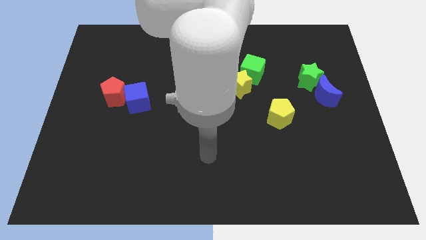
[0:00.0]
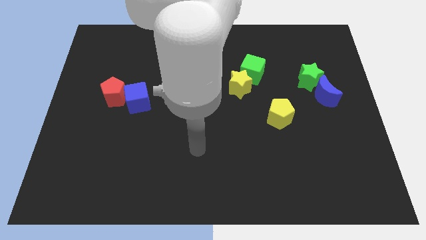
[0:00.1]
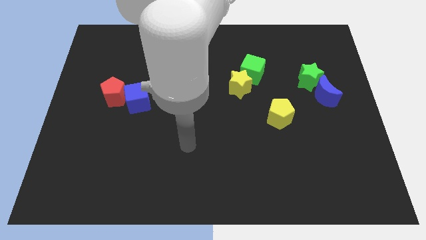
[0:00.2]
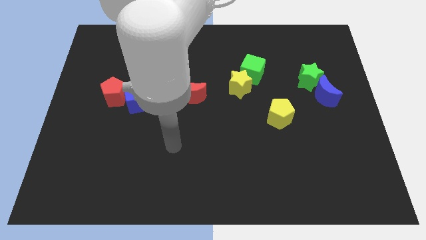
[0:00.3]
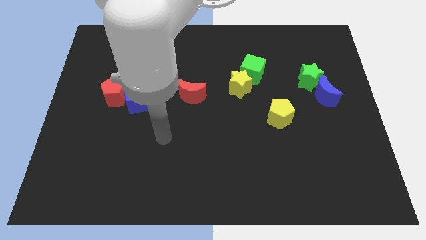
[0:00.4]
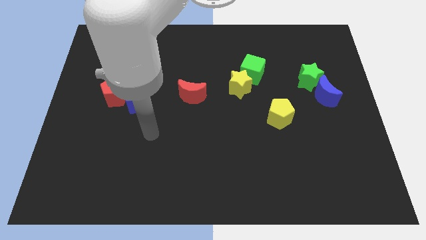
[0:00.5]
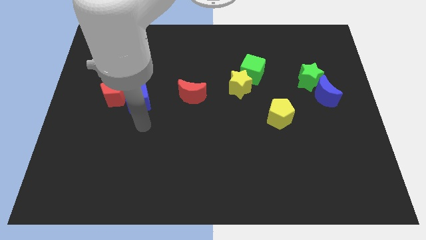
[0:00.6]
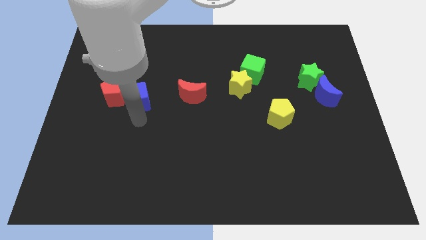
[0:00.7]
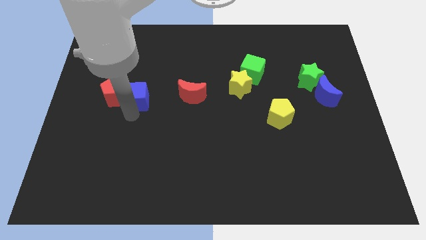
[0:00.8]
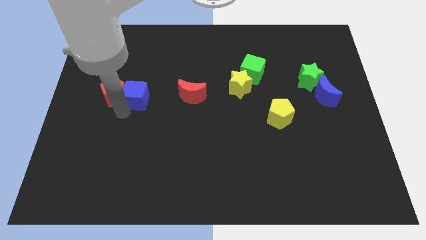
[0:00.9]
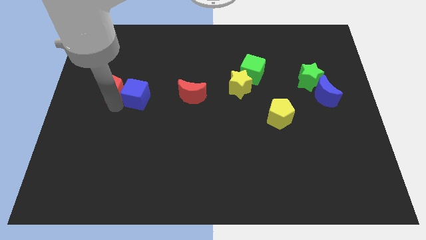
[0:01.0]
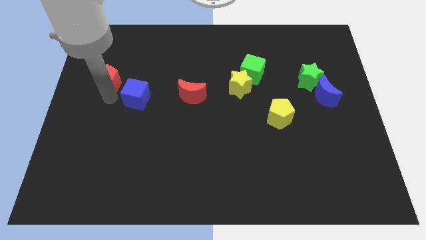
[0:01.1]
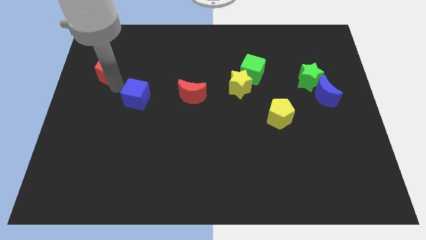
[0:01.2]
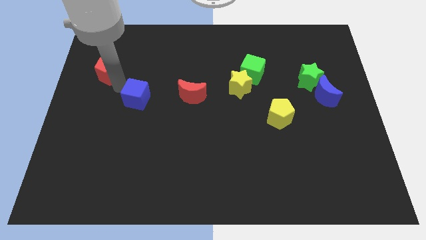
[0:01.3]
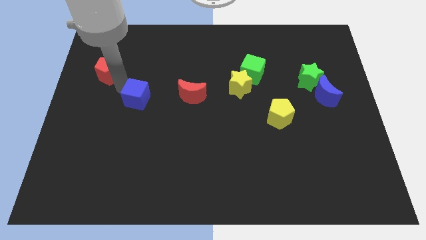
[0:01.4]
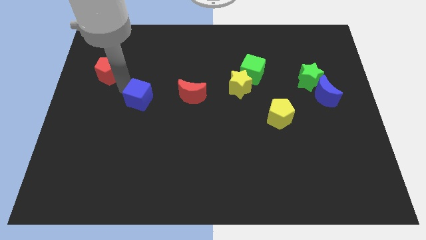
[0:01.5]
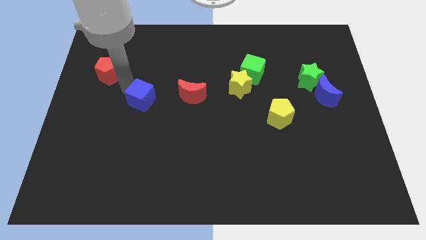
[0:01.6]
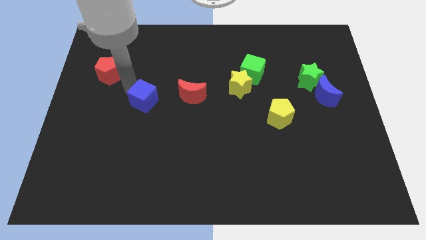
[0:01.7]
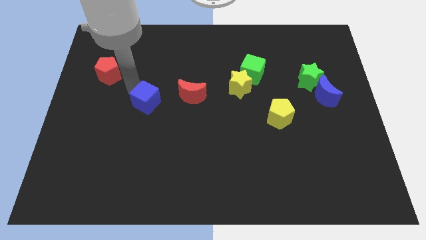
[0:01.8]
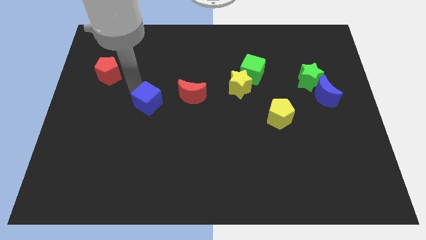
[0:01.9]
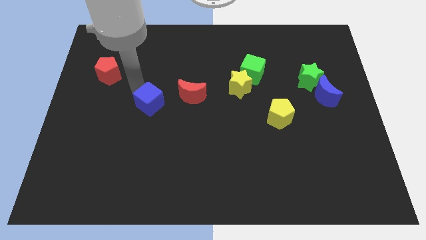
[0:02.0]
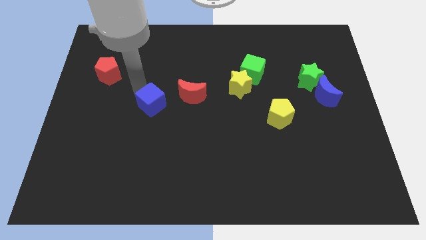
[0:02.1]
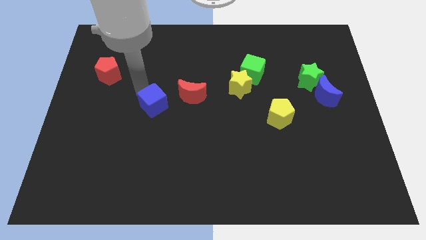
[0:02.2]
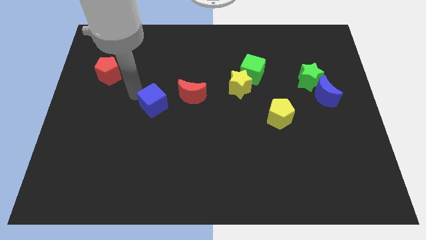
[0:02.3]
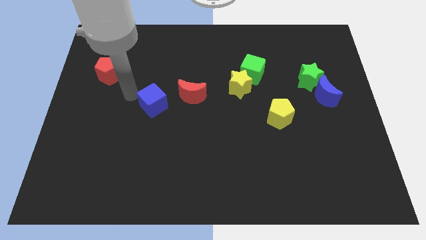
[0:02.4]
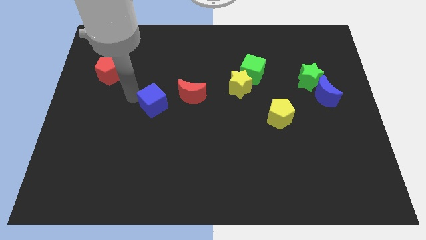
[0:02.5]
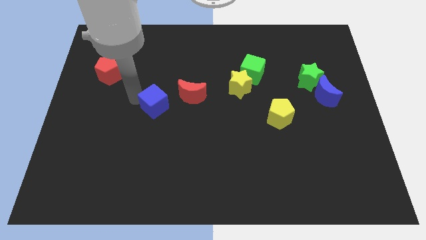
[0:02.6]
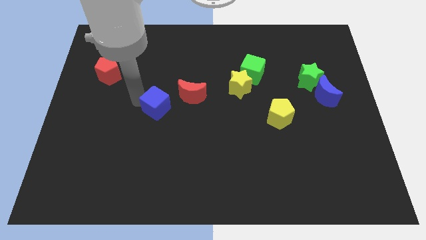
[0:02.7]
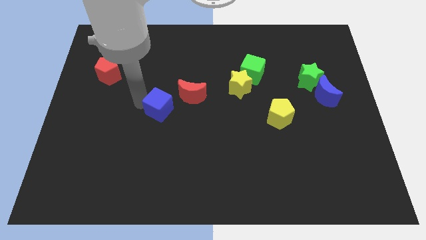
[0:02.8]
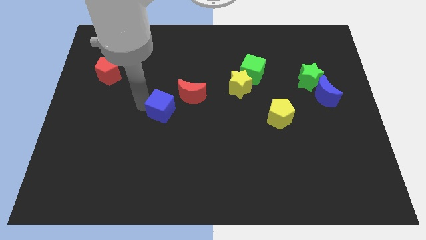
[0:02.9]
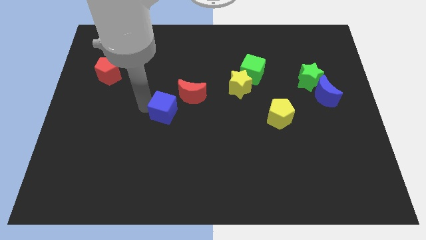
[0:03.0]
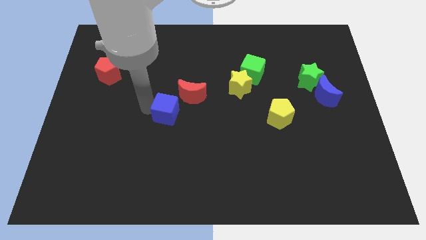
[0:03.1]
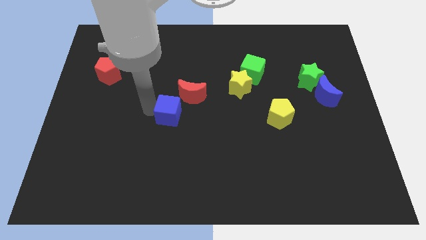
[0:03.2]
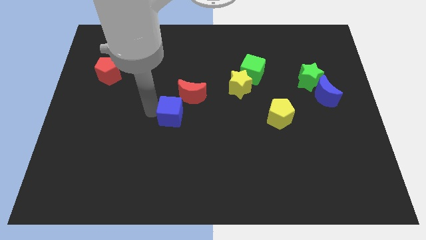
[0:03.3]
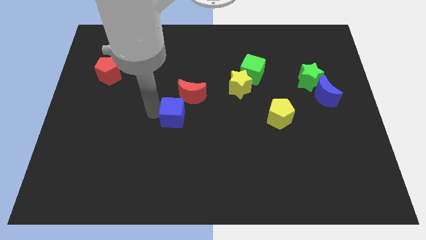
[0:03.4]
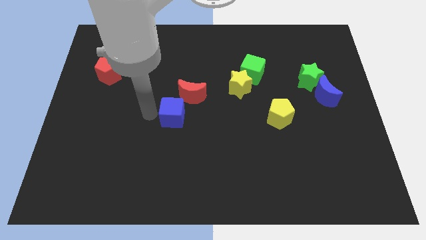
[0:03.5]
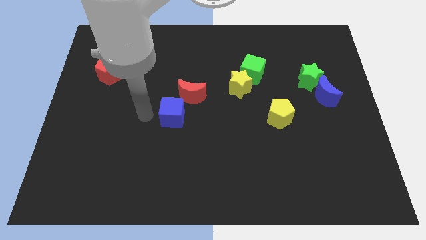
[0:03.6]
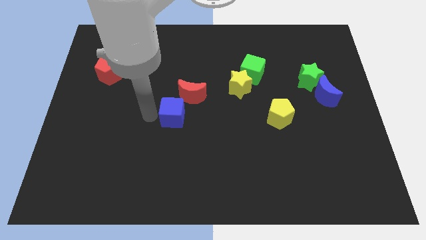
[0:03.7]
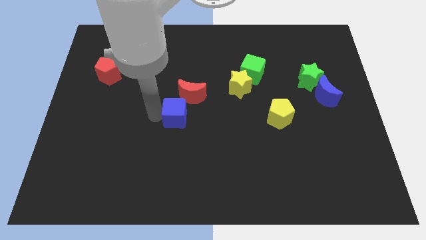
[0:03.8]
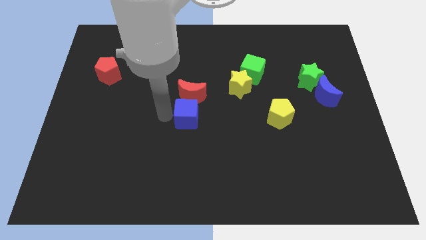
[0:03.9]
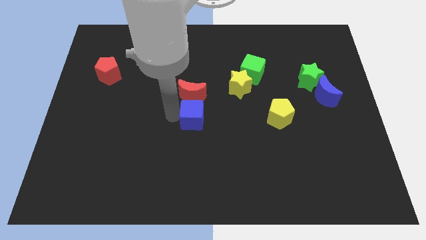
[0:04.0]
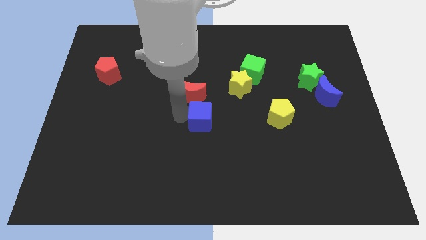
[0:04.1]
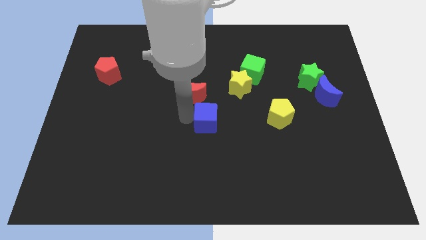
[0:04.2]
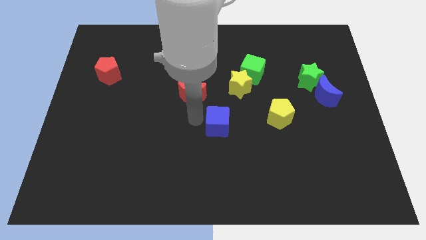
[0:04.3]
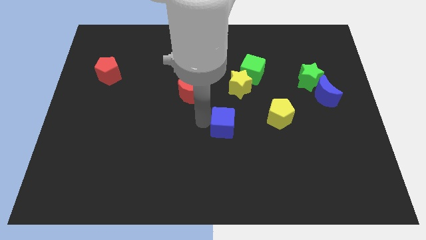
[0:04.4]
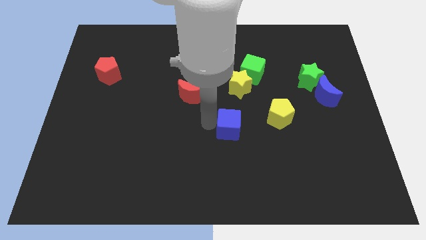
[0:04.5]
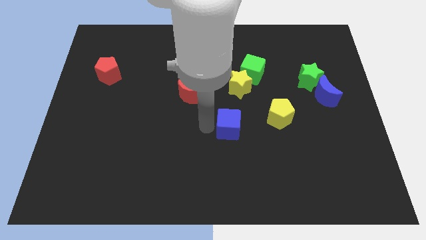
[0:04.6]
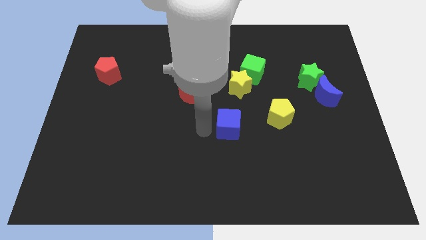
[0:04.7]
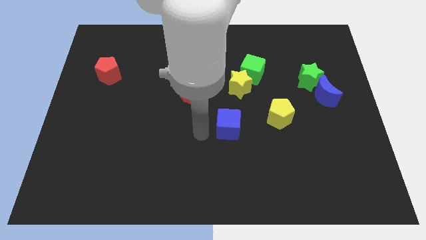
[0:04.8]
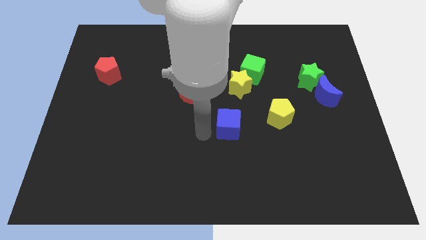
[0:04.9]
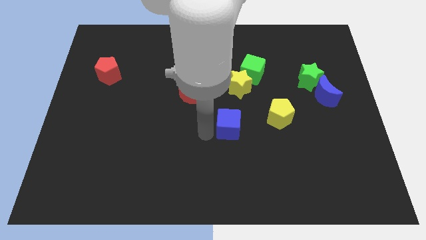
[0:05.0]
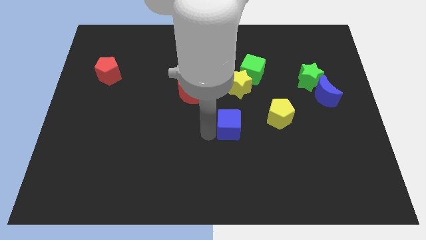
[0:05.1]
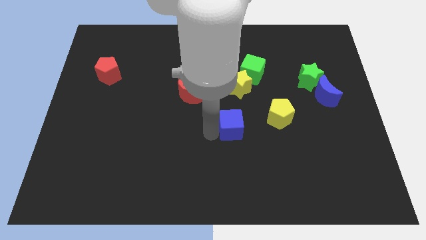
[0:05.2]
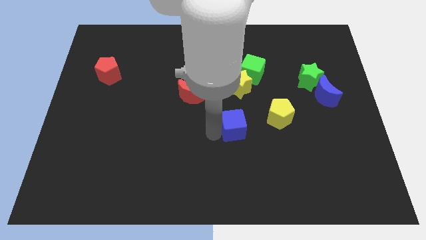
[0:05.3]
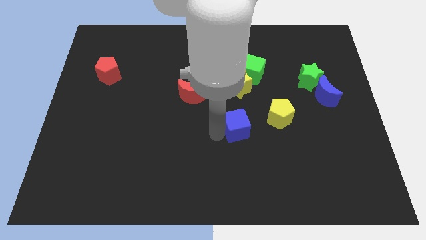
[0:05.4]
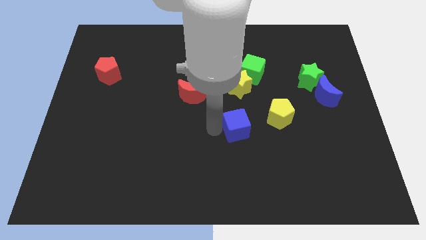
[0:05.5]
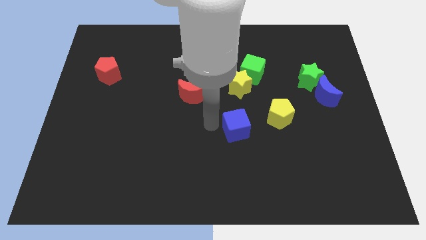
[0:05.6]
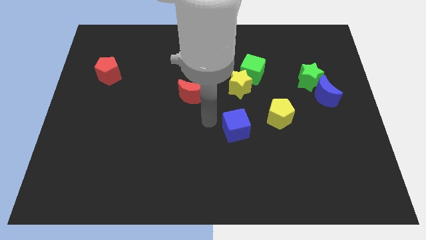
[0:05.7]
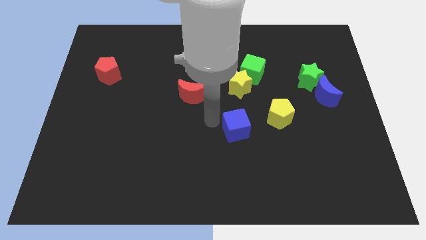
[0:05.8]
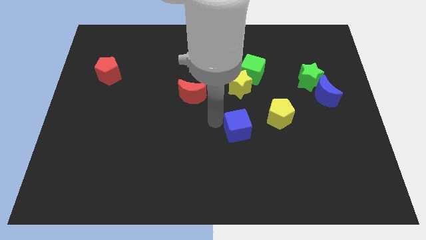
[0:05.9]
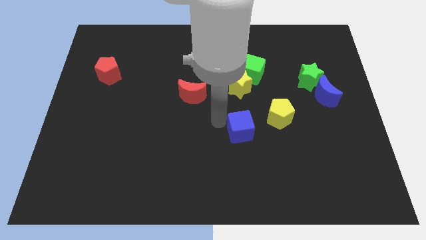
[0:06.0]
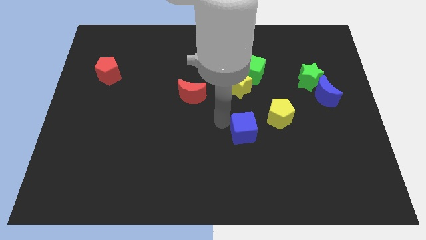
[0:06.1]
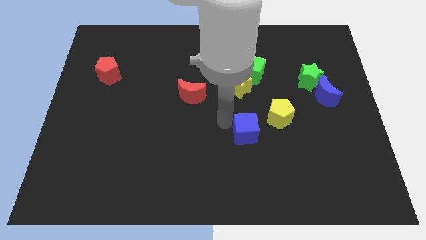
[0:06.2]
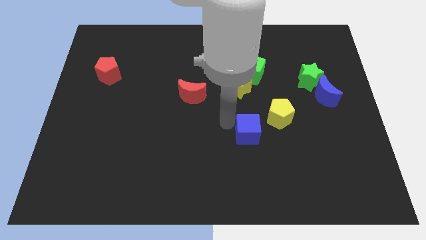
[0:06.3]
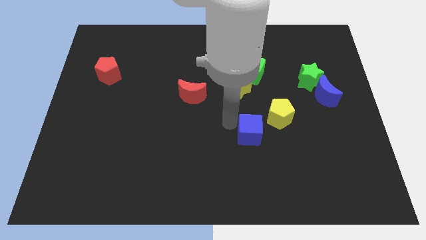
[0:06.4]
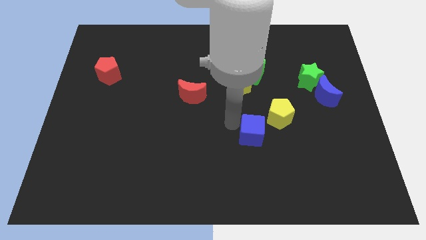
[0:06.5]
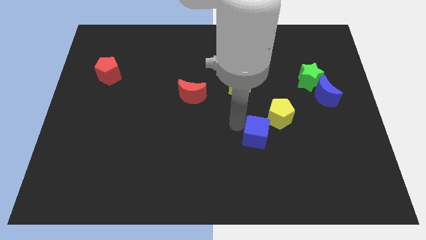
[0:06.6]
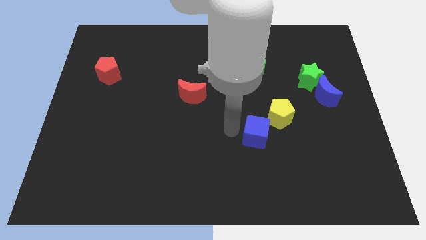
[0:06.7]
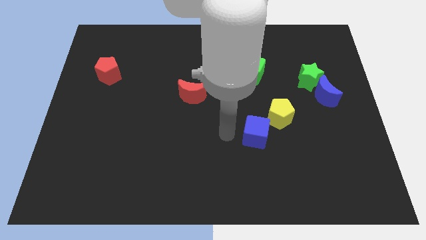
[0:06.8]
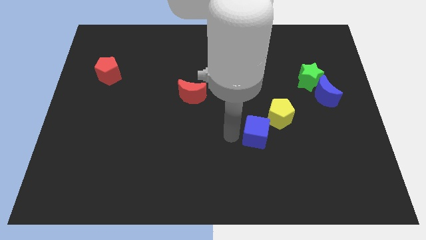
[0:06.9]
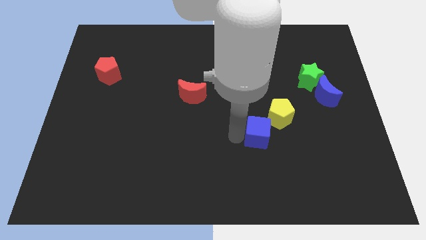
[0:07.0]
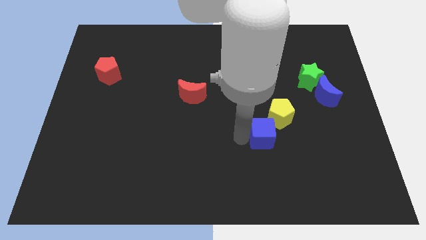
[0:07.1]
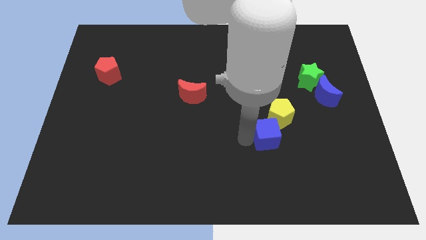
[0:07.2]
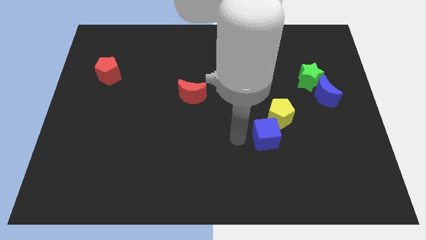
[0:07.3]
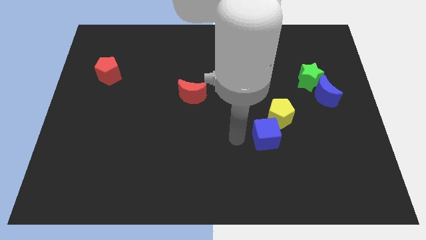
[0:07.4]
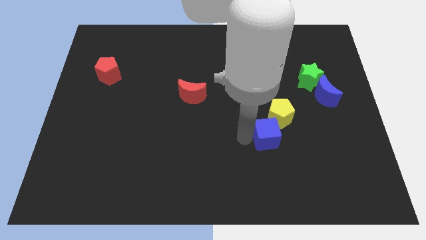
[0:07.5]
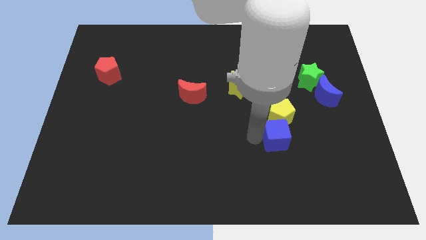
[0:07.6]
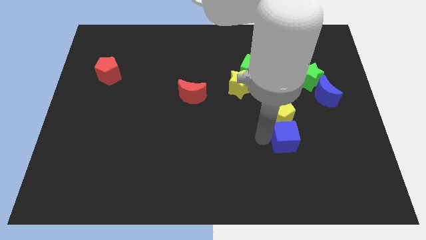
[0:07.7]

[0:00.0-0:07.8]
push the blue cube to the bottom right of the yellow pentagon

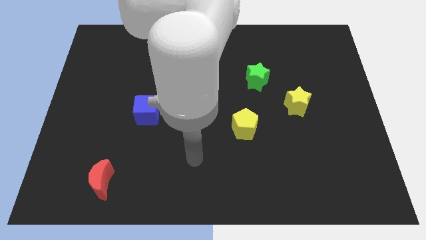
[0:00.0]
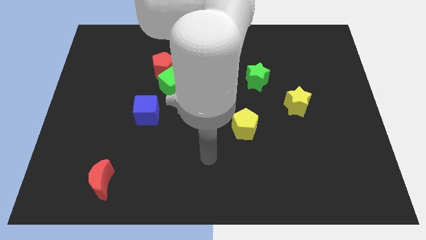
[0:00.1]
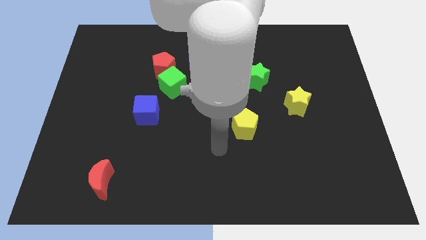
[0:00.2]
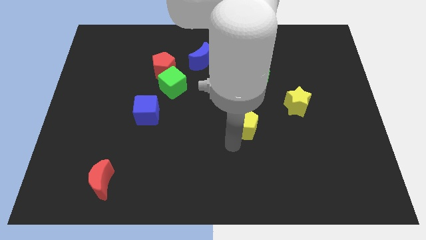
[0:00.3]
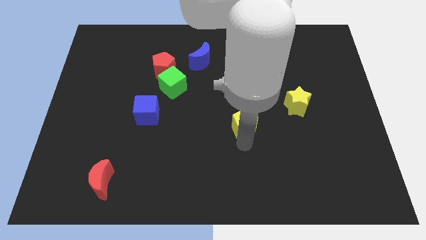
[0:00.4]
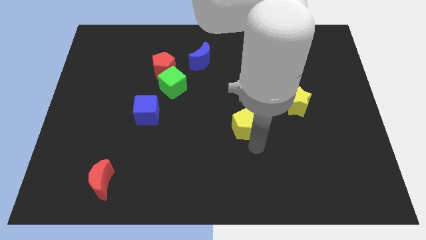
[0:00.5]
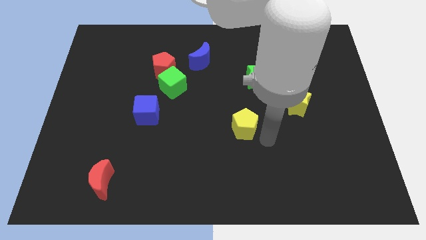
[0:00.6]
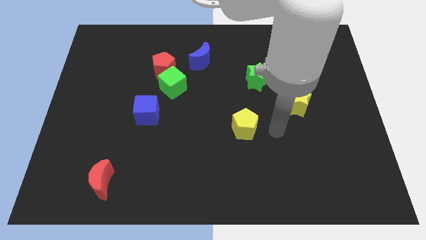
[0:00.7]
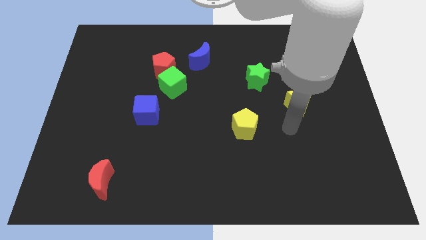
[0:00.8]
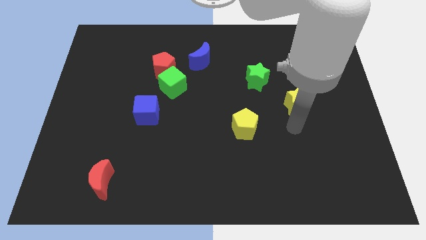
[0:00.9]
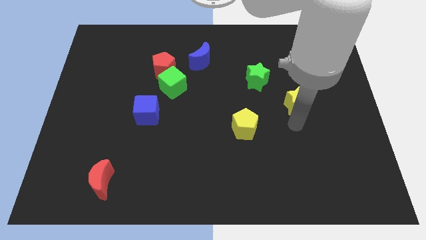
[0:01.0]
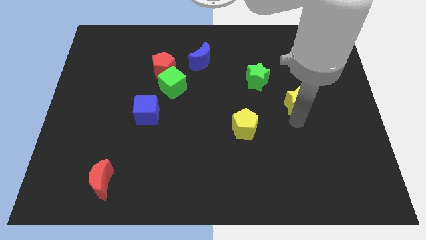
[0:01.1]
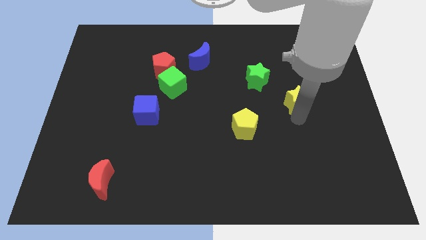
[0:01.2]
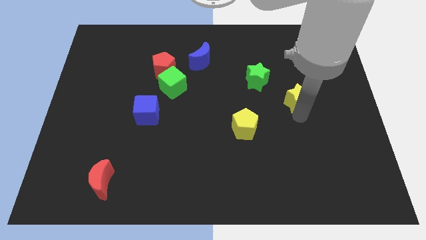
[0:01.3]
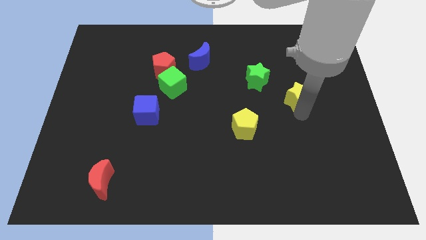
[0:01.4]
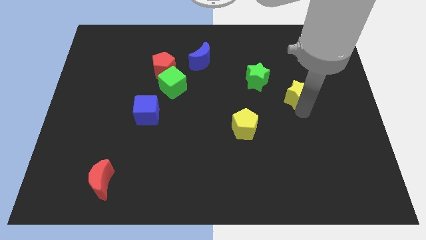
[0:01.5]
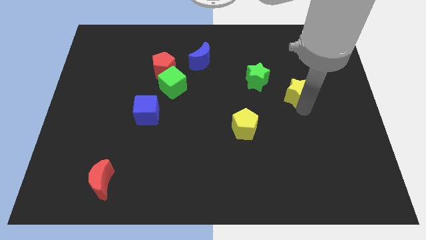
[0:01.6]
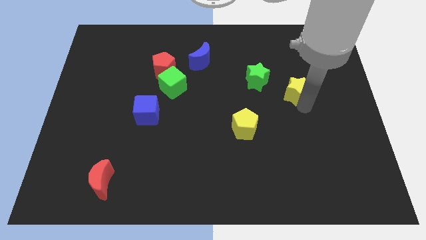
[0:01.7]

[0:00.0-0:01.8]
put the yellow star to the right side of the green star
